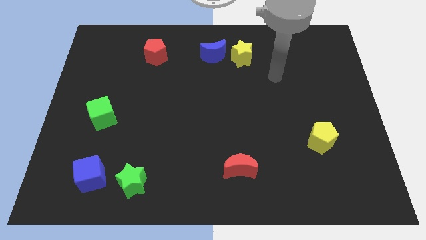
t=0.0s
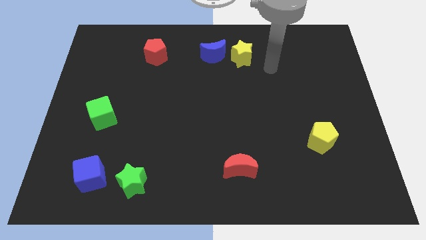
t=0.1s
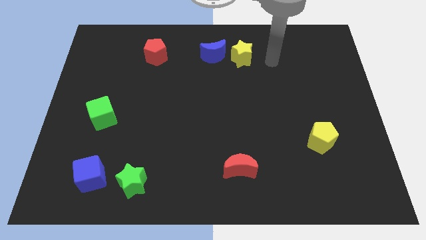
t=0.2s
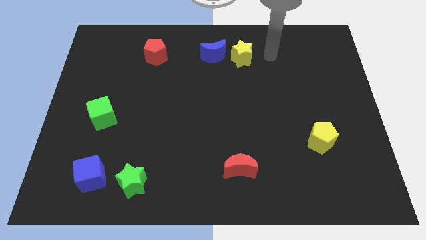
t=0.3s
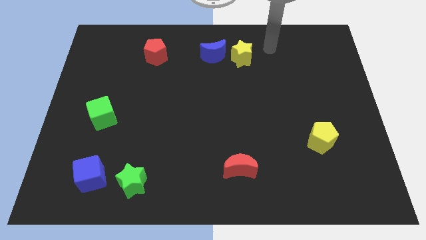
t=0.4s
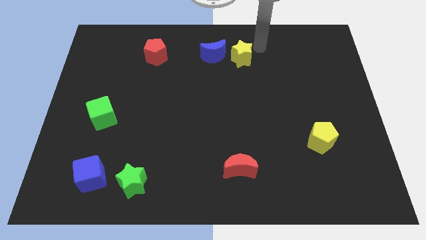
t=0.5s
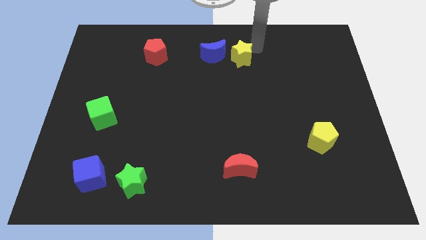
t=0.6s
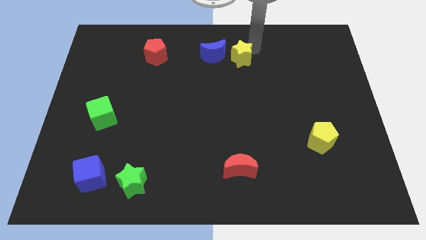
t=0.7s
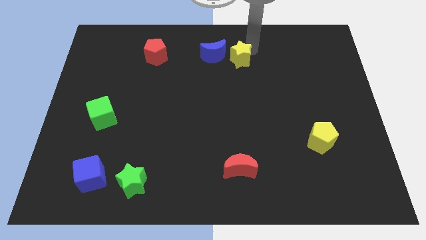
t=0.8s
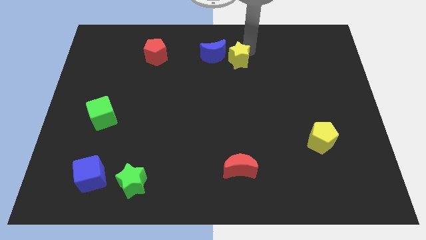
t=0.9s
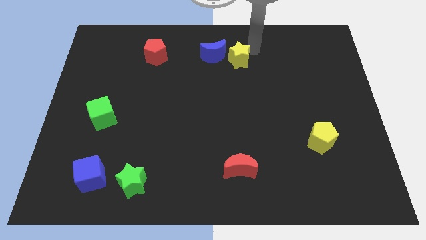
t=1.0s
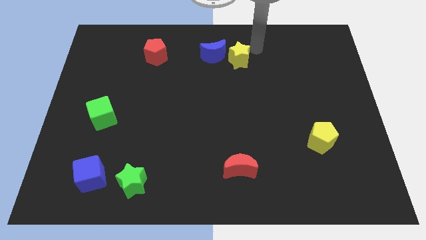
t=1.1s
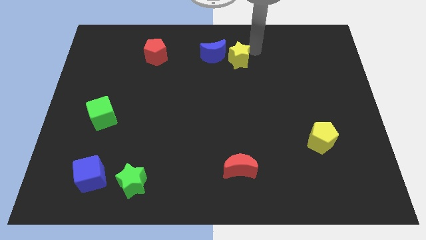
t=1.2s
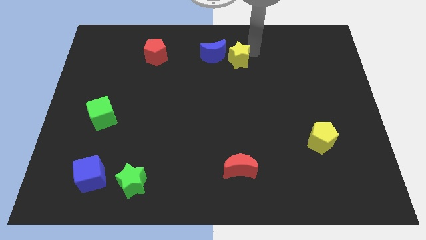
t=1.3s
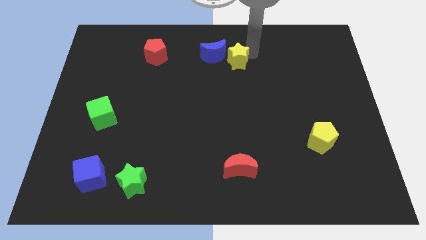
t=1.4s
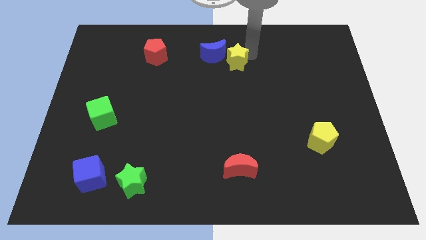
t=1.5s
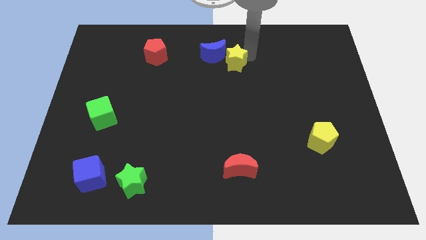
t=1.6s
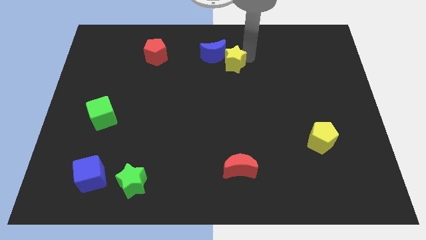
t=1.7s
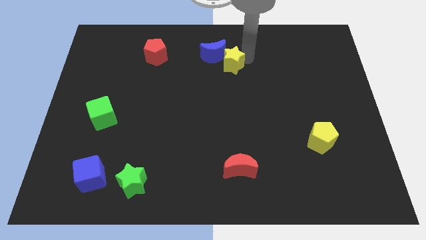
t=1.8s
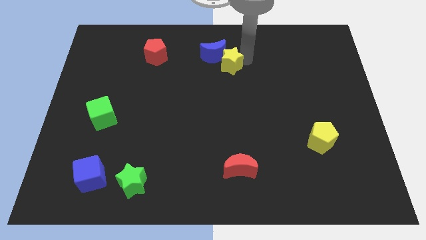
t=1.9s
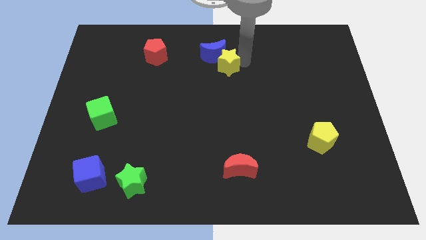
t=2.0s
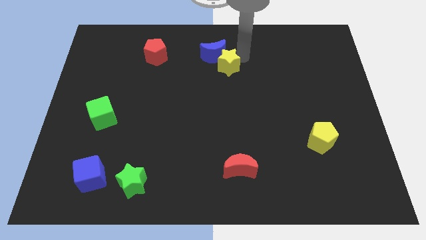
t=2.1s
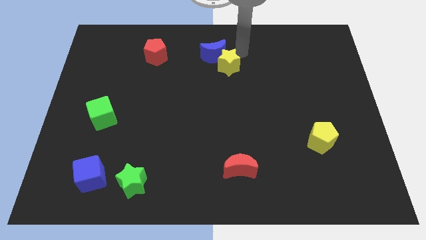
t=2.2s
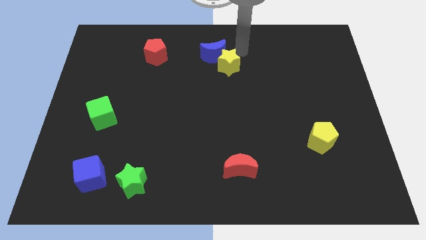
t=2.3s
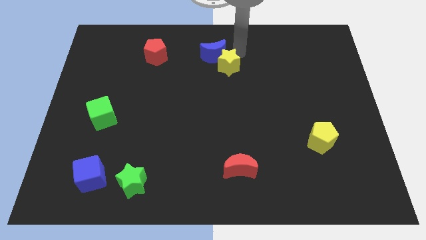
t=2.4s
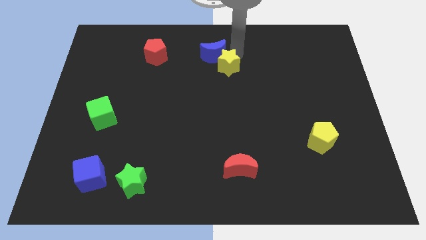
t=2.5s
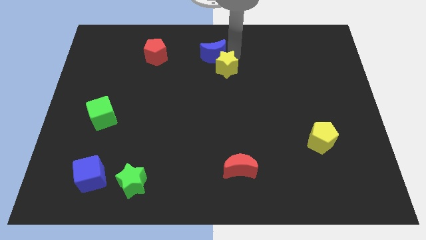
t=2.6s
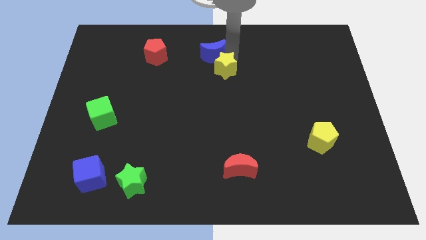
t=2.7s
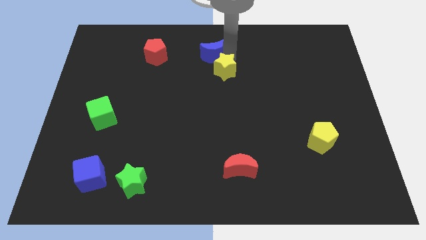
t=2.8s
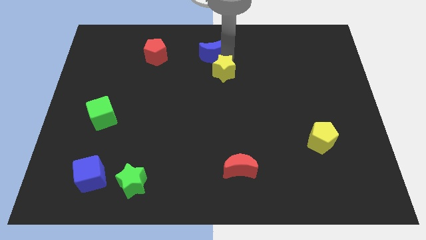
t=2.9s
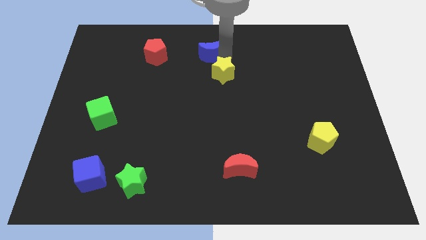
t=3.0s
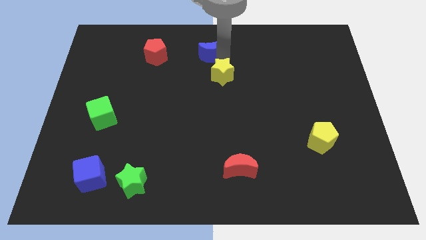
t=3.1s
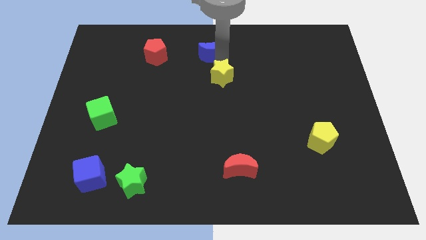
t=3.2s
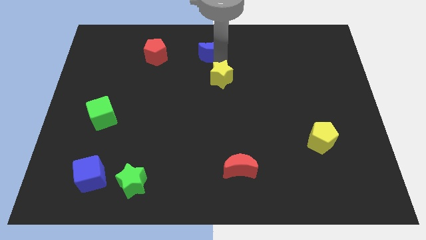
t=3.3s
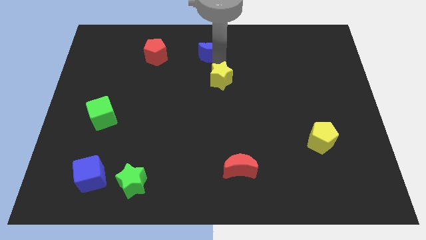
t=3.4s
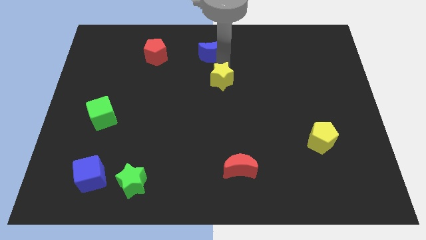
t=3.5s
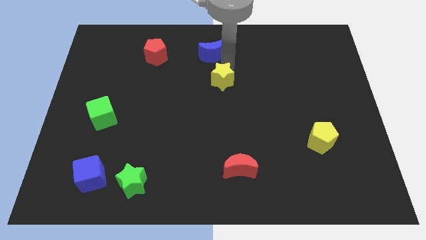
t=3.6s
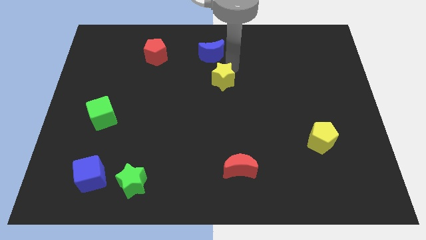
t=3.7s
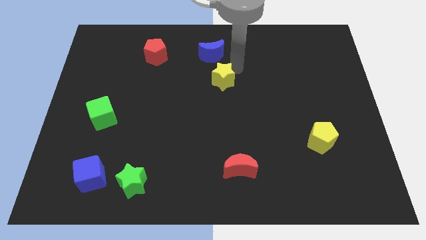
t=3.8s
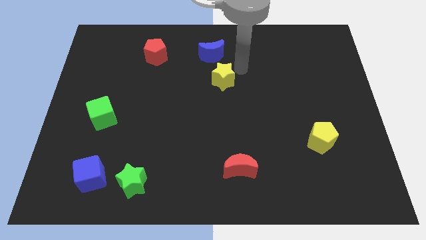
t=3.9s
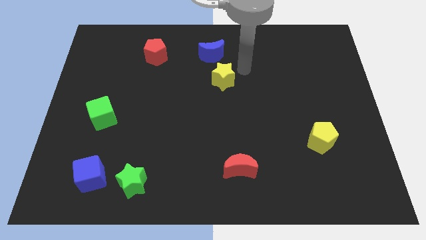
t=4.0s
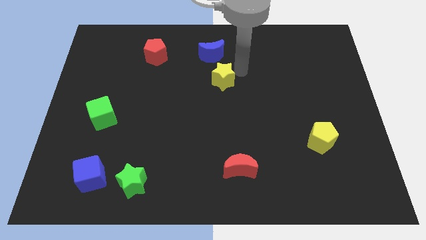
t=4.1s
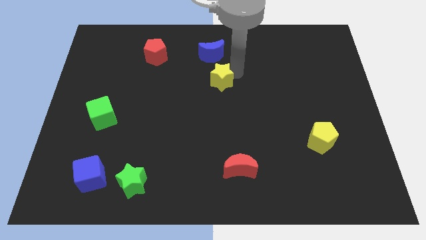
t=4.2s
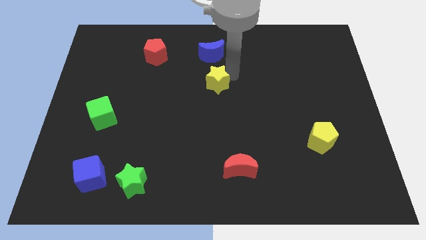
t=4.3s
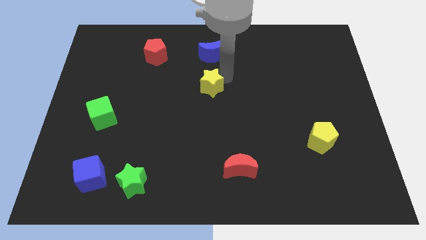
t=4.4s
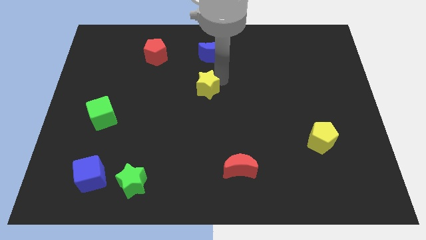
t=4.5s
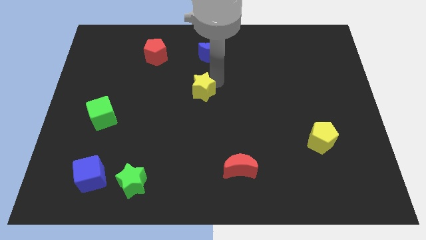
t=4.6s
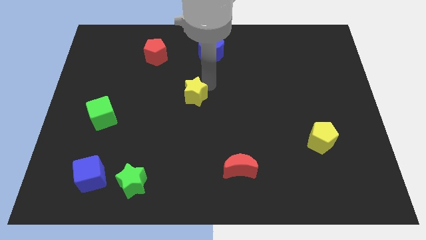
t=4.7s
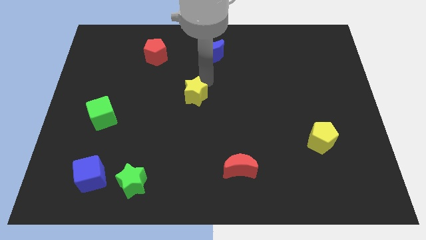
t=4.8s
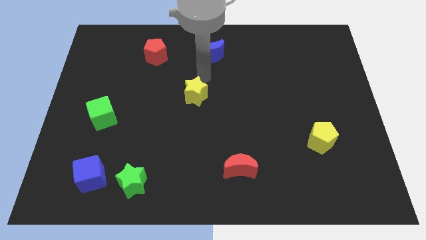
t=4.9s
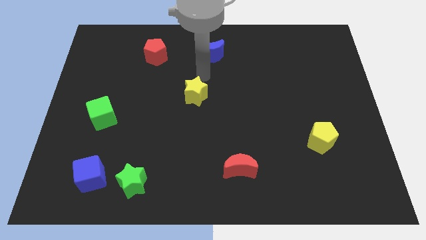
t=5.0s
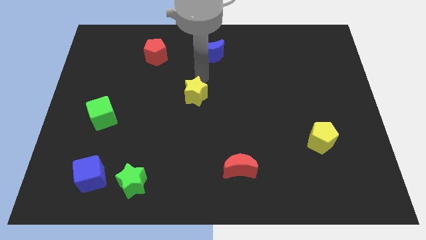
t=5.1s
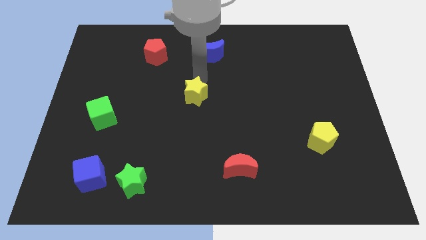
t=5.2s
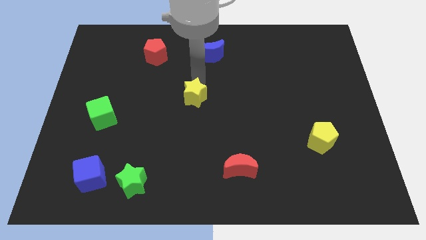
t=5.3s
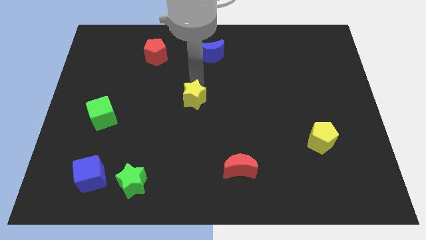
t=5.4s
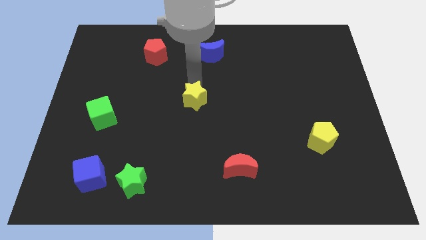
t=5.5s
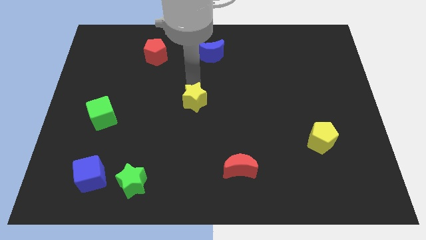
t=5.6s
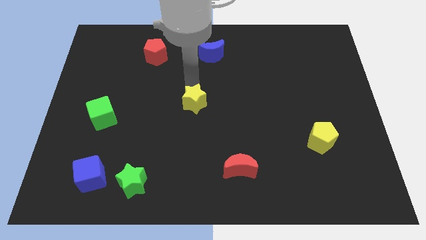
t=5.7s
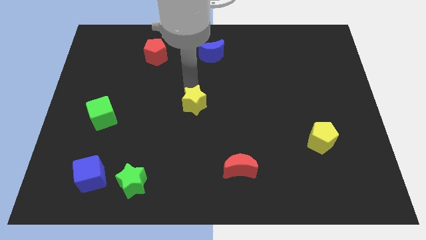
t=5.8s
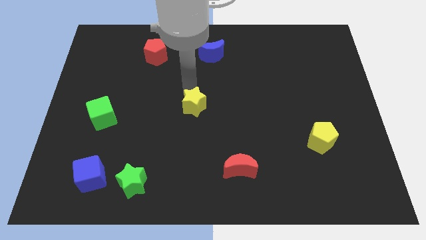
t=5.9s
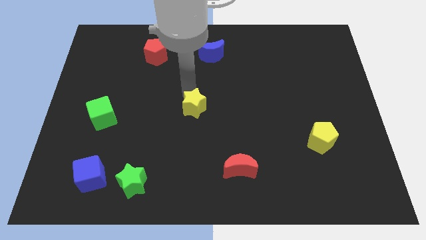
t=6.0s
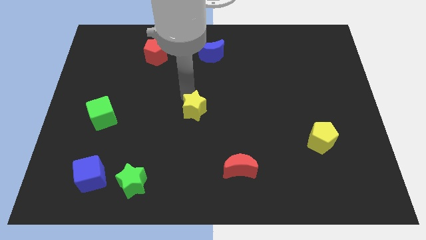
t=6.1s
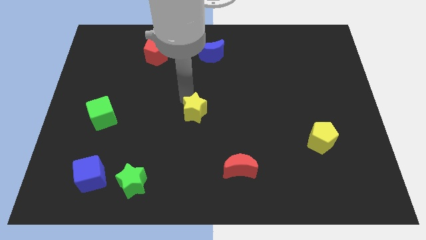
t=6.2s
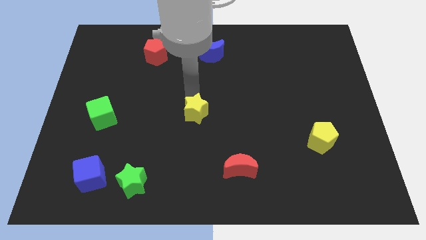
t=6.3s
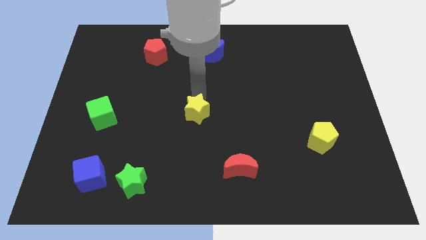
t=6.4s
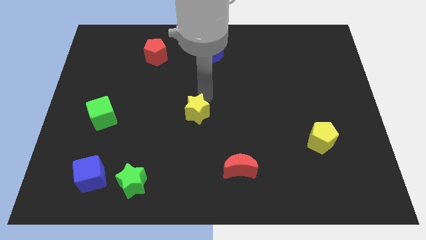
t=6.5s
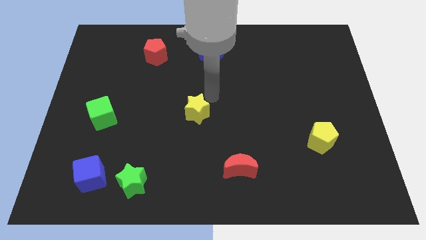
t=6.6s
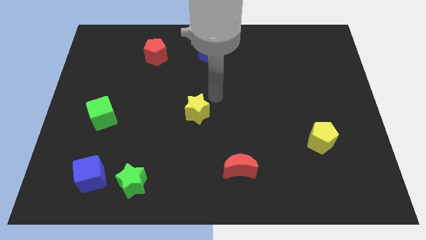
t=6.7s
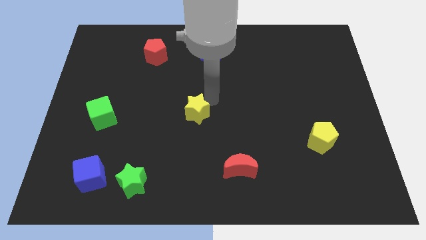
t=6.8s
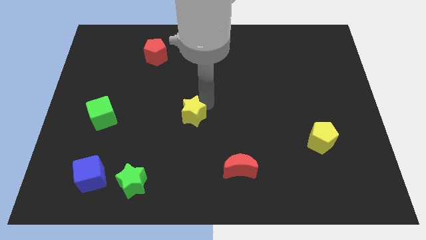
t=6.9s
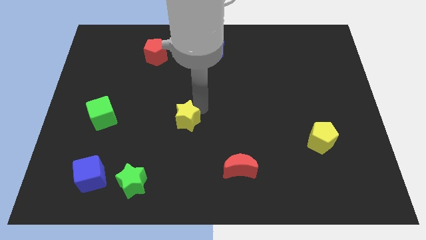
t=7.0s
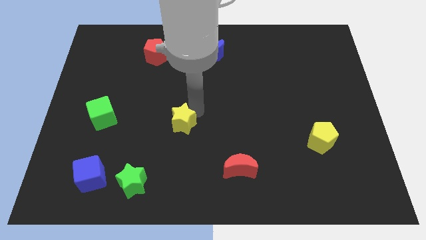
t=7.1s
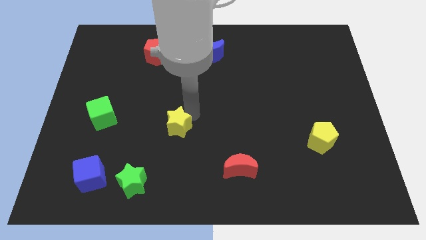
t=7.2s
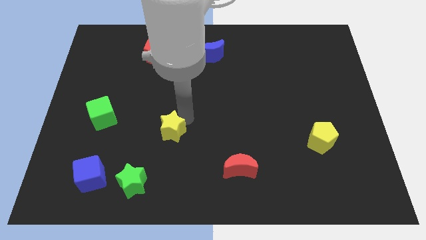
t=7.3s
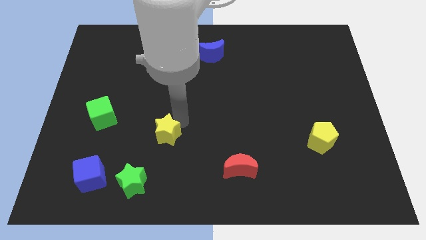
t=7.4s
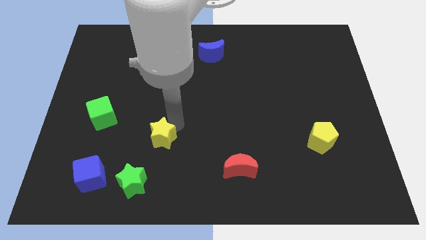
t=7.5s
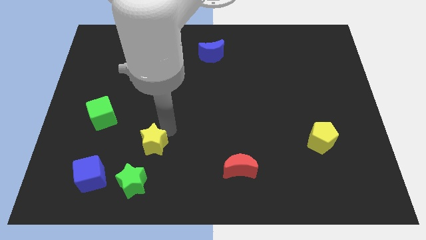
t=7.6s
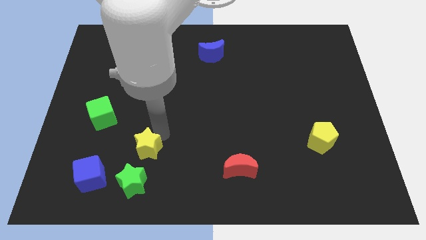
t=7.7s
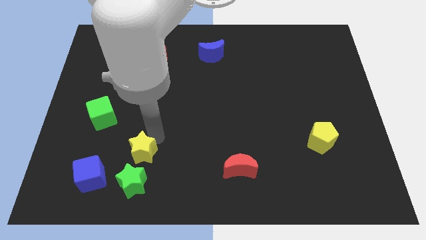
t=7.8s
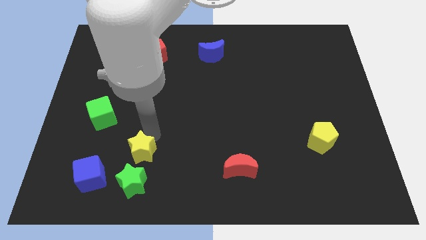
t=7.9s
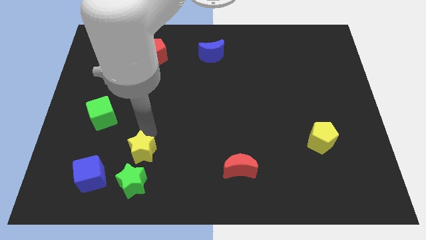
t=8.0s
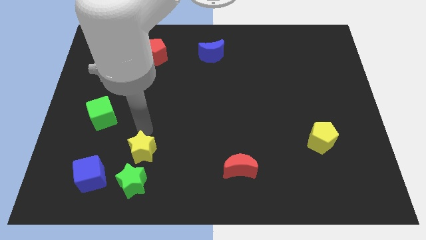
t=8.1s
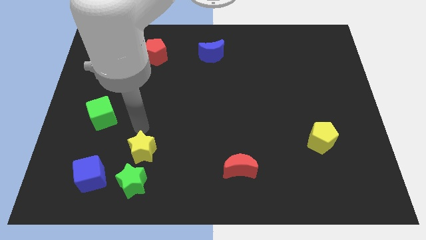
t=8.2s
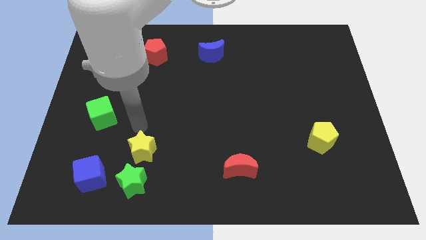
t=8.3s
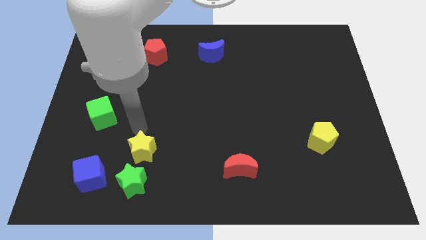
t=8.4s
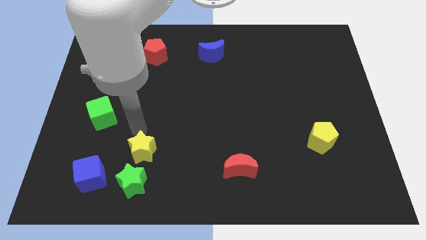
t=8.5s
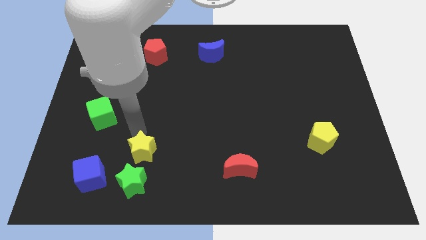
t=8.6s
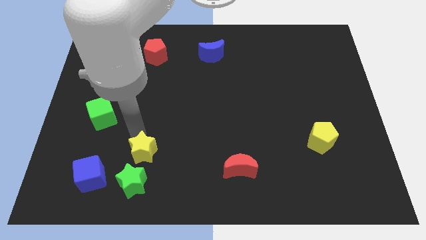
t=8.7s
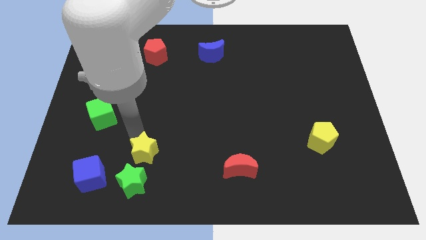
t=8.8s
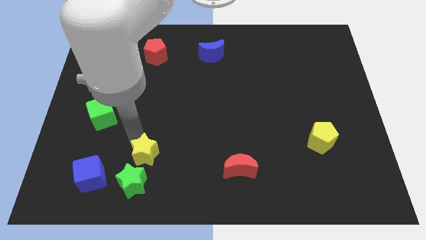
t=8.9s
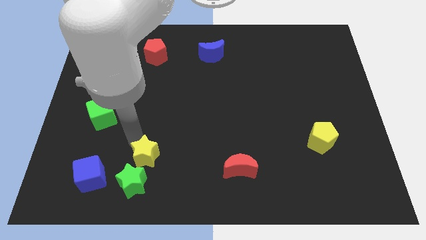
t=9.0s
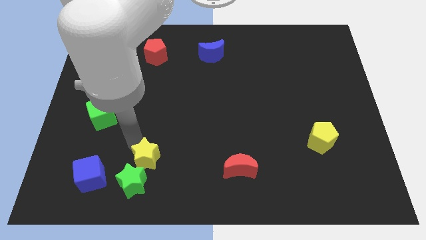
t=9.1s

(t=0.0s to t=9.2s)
put the yellow star to the green star
